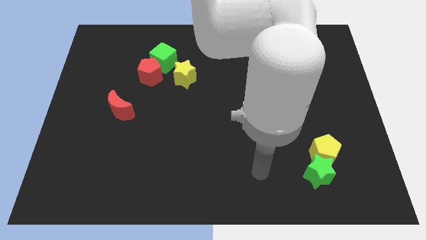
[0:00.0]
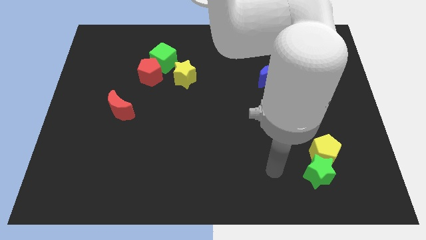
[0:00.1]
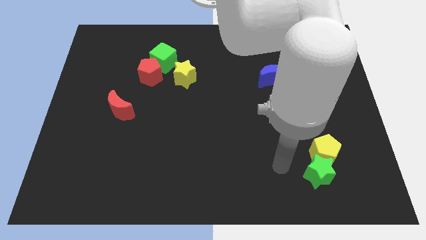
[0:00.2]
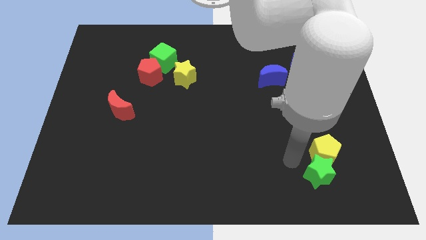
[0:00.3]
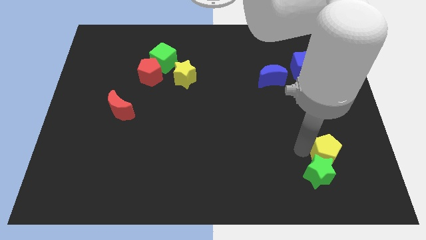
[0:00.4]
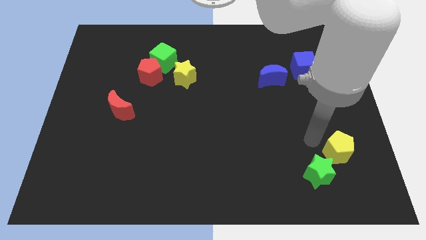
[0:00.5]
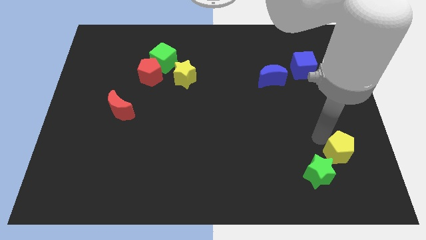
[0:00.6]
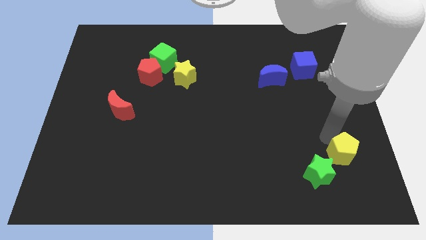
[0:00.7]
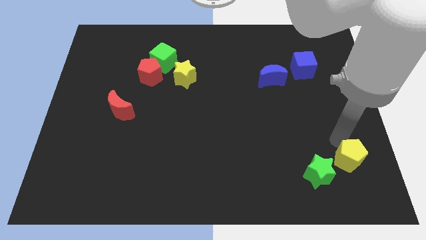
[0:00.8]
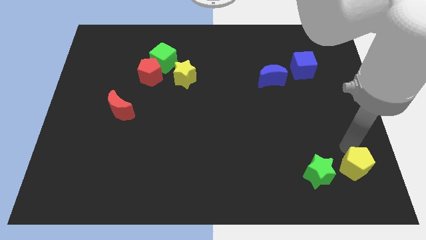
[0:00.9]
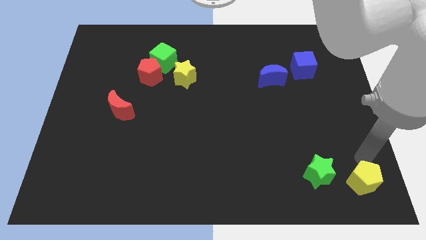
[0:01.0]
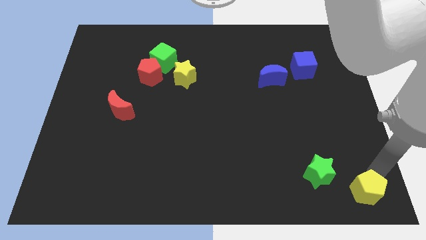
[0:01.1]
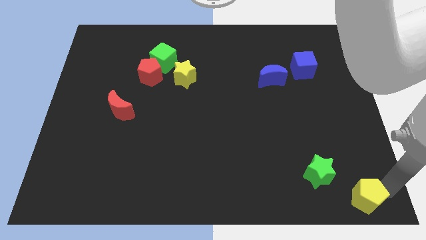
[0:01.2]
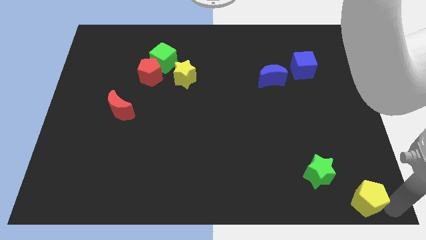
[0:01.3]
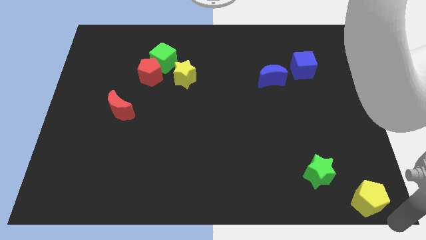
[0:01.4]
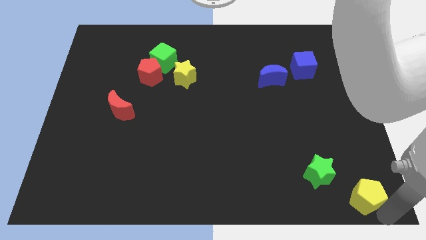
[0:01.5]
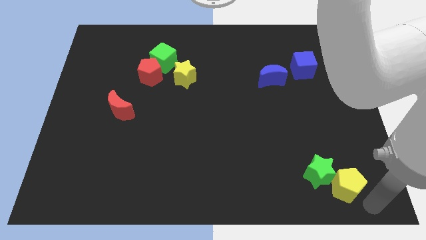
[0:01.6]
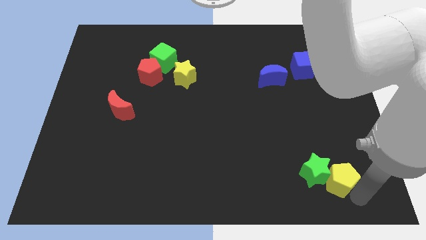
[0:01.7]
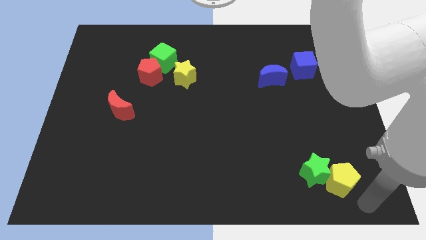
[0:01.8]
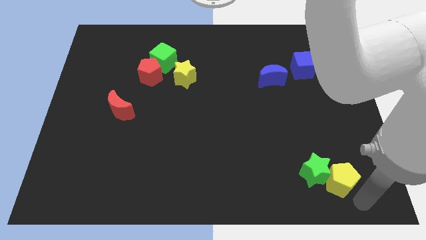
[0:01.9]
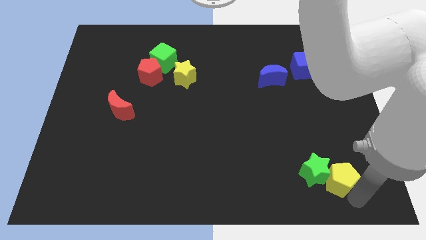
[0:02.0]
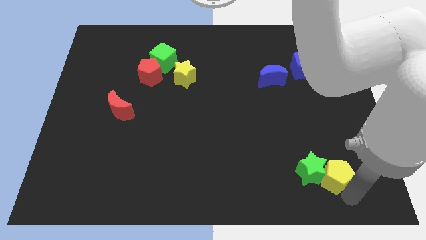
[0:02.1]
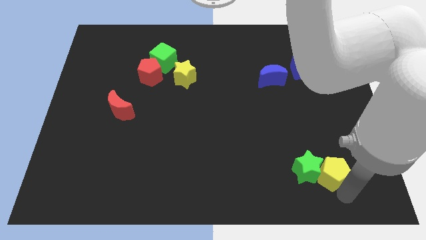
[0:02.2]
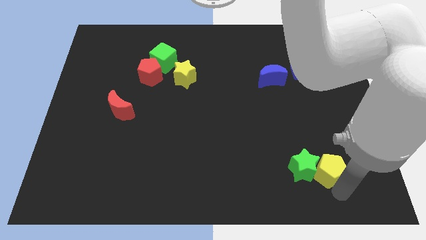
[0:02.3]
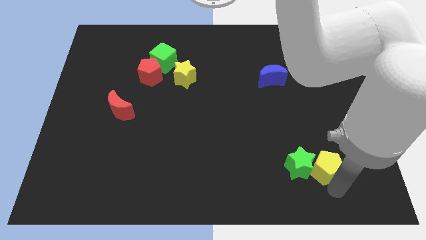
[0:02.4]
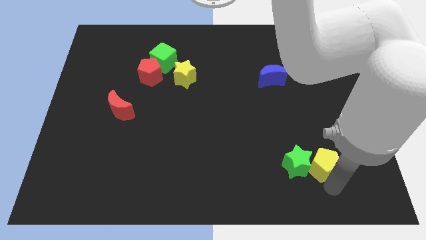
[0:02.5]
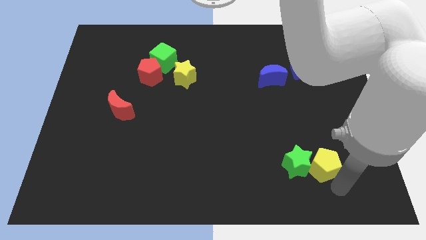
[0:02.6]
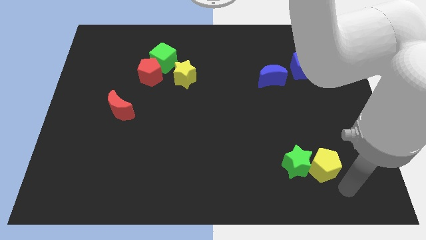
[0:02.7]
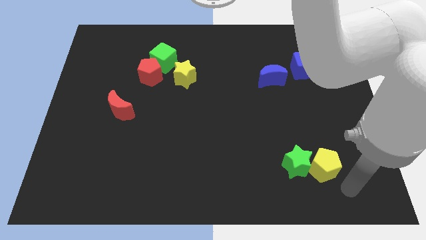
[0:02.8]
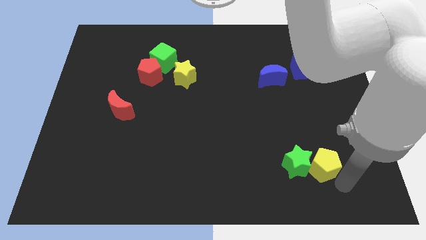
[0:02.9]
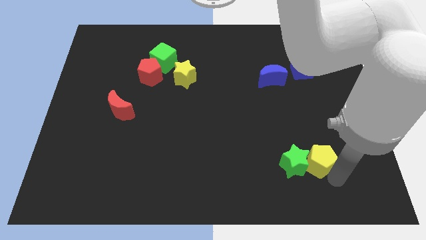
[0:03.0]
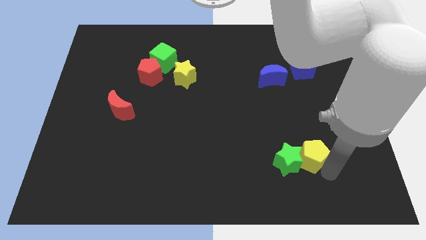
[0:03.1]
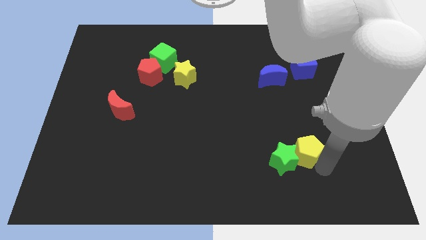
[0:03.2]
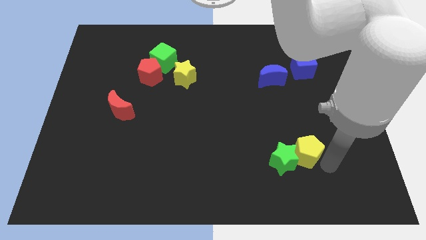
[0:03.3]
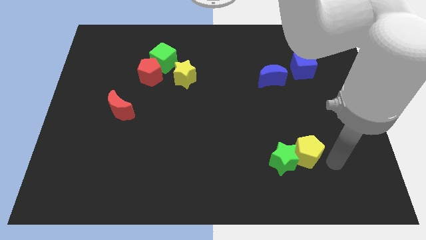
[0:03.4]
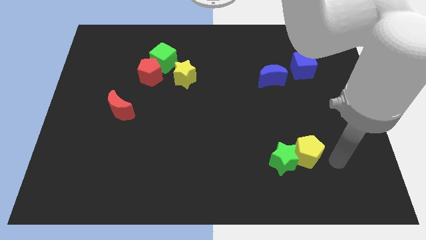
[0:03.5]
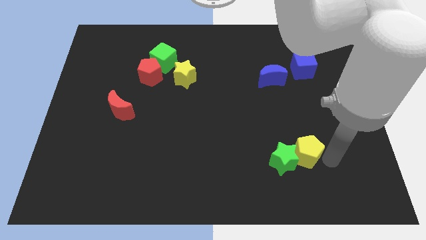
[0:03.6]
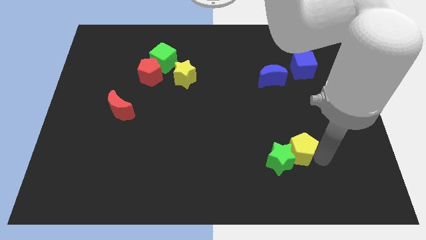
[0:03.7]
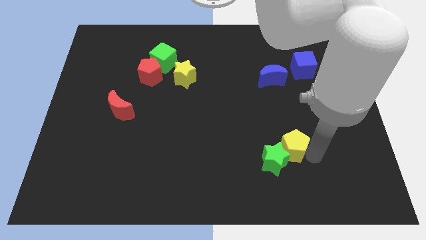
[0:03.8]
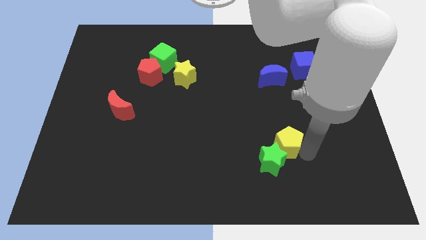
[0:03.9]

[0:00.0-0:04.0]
push the yellow pentagon a little bit to the left

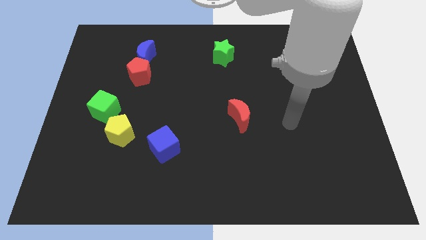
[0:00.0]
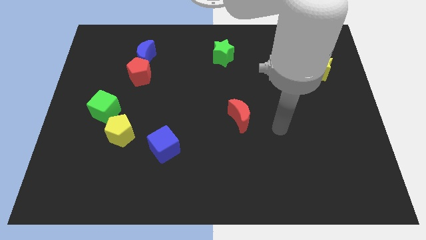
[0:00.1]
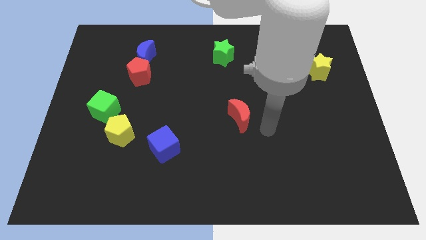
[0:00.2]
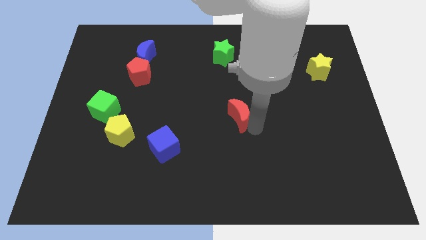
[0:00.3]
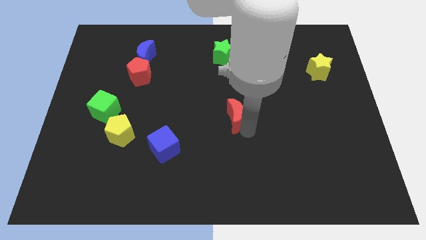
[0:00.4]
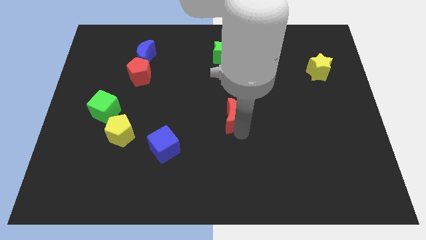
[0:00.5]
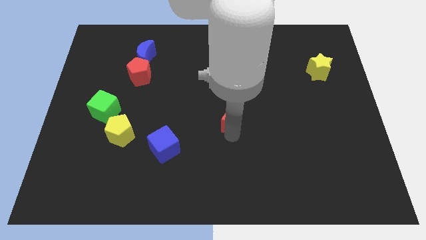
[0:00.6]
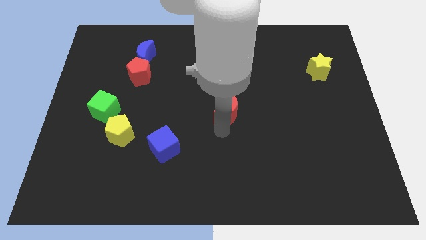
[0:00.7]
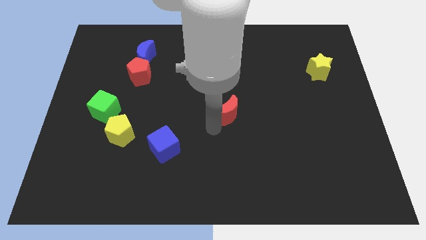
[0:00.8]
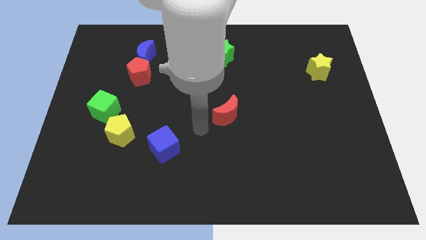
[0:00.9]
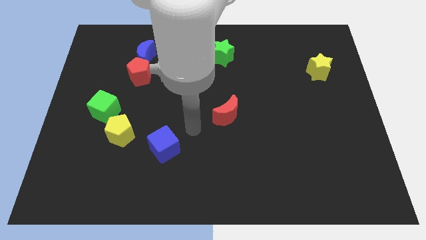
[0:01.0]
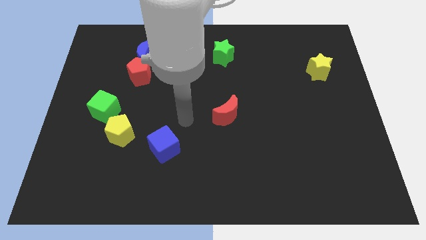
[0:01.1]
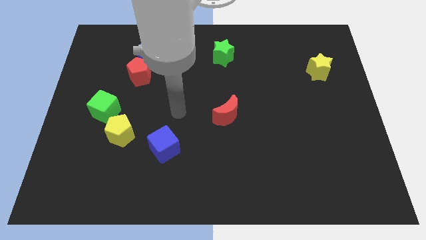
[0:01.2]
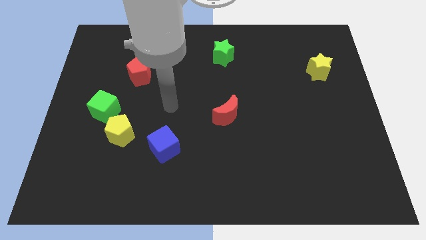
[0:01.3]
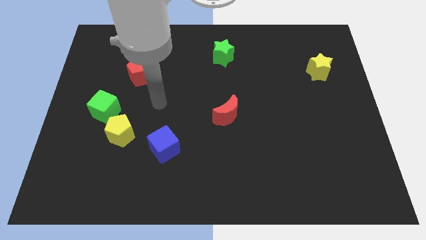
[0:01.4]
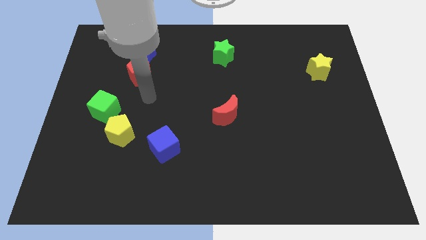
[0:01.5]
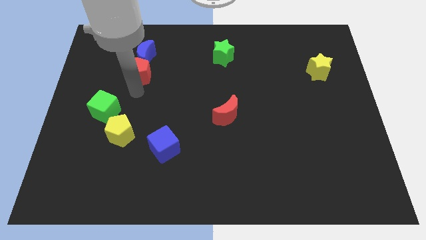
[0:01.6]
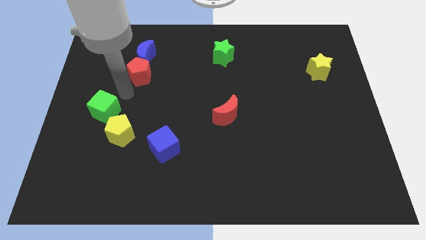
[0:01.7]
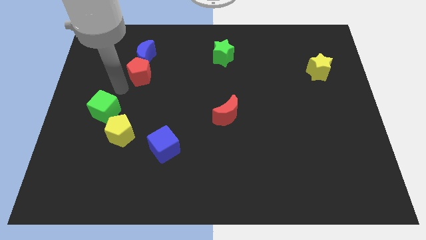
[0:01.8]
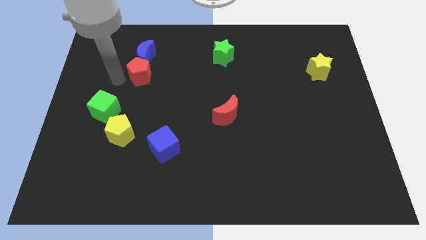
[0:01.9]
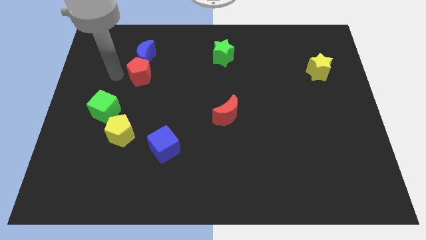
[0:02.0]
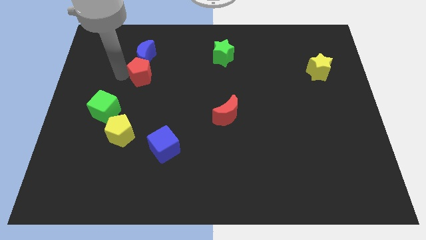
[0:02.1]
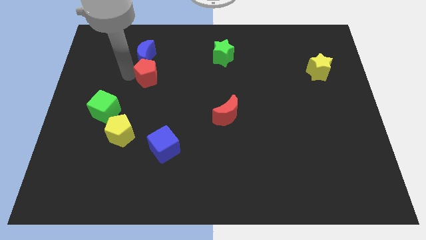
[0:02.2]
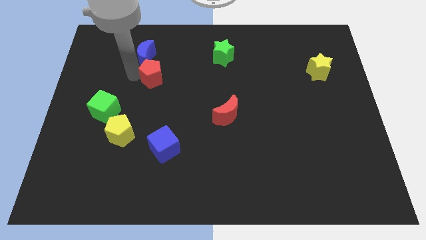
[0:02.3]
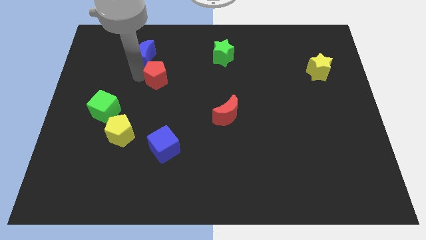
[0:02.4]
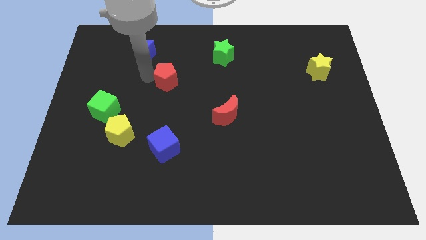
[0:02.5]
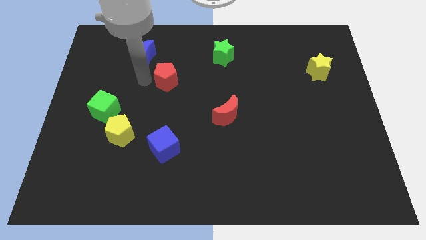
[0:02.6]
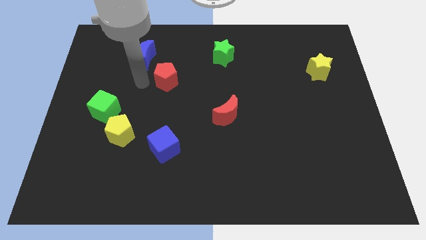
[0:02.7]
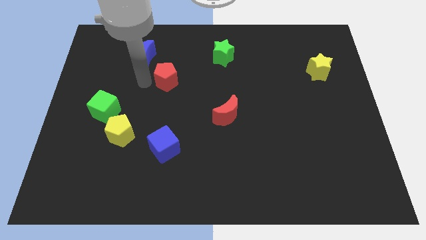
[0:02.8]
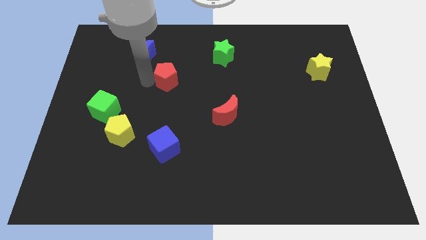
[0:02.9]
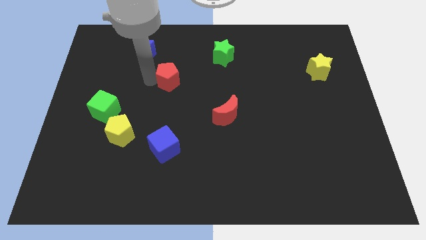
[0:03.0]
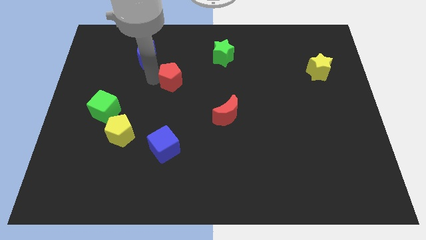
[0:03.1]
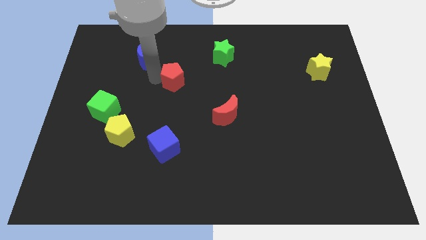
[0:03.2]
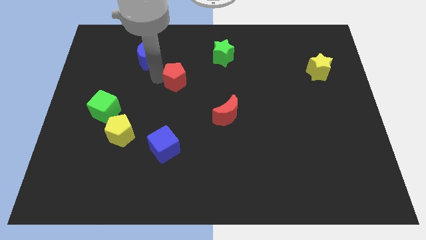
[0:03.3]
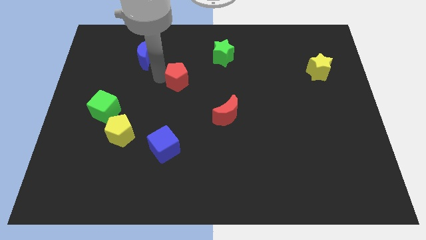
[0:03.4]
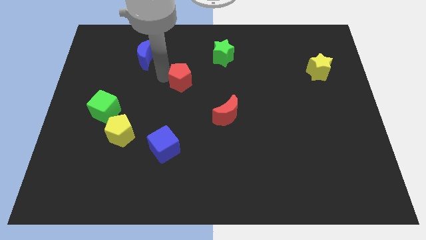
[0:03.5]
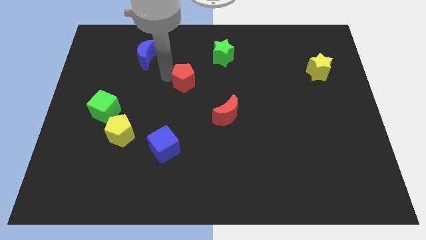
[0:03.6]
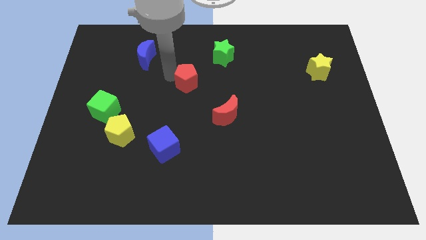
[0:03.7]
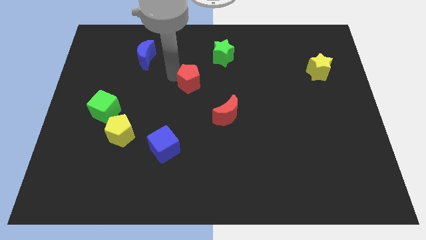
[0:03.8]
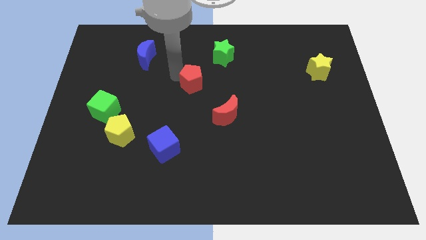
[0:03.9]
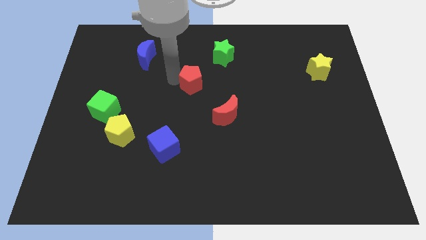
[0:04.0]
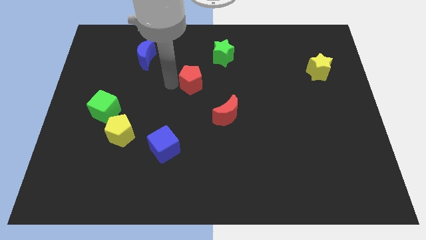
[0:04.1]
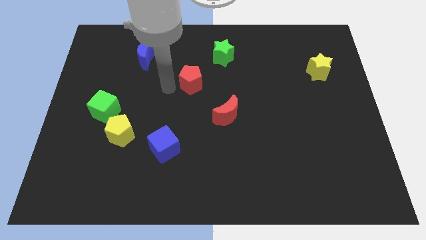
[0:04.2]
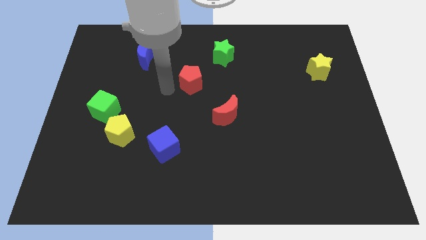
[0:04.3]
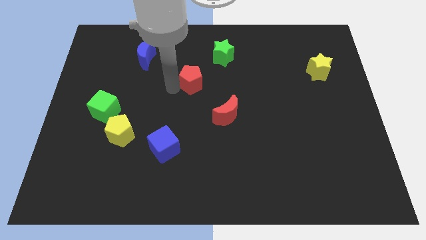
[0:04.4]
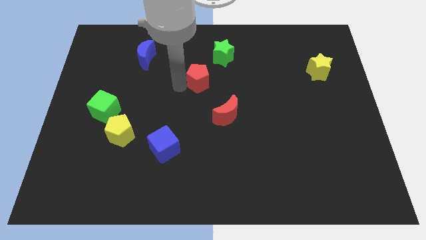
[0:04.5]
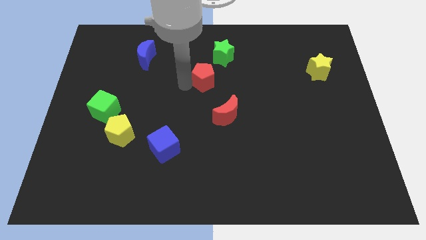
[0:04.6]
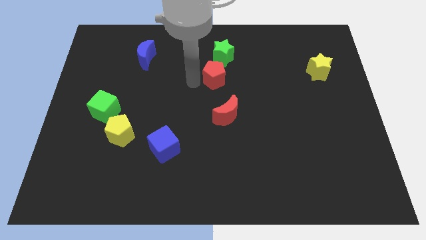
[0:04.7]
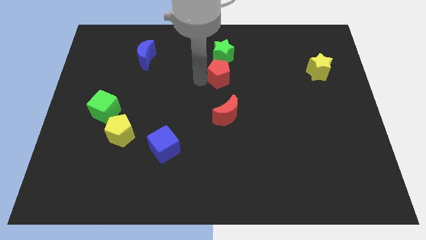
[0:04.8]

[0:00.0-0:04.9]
move the red pentagon to the right
